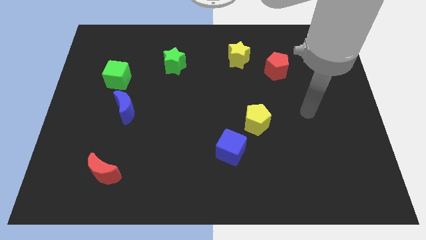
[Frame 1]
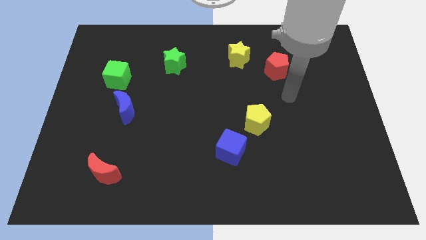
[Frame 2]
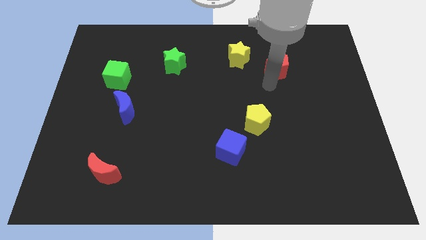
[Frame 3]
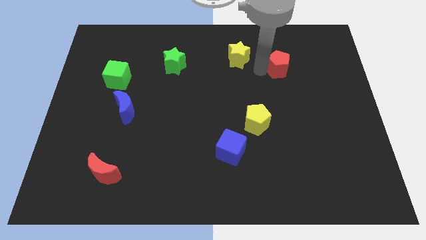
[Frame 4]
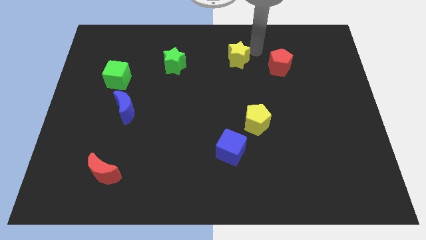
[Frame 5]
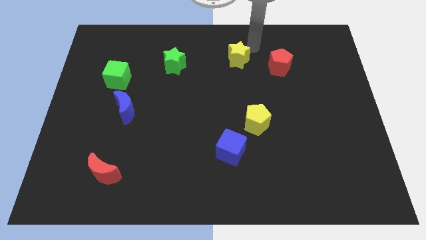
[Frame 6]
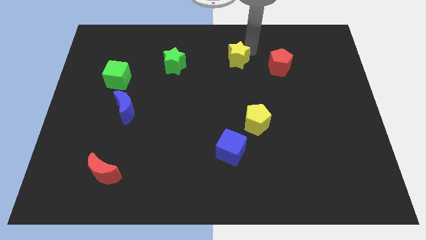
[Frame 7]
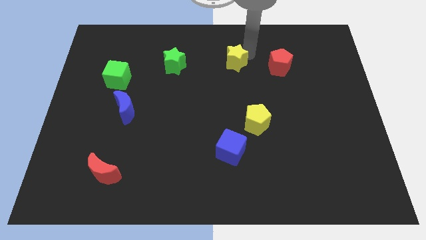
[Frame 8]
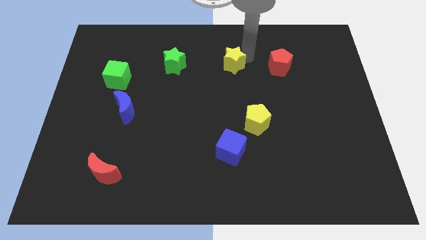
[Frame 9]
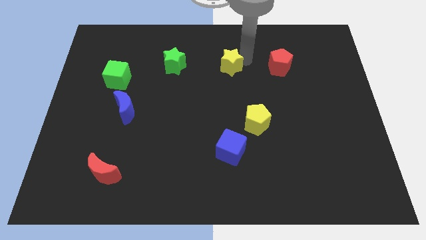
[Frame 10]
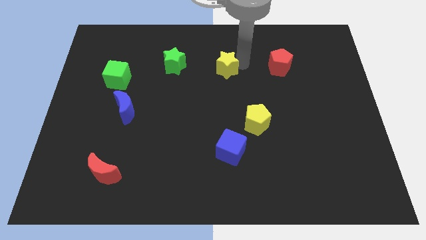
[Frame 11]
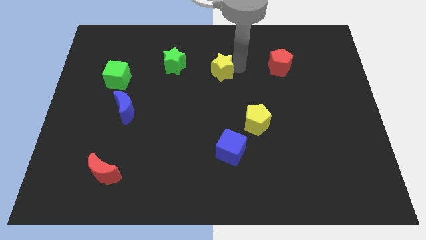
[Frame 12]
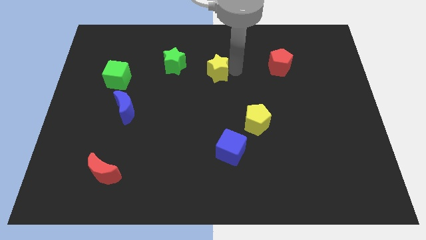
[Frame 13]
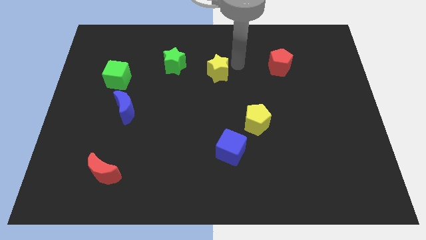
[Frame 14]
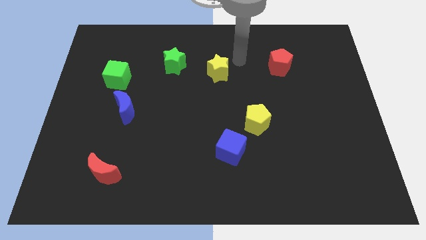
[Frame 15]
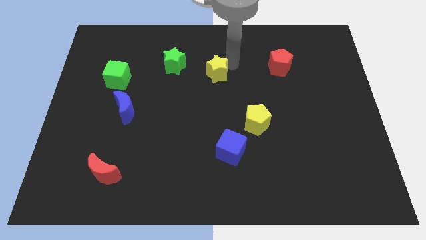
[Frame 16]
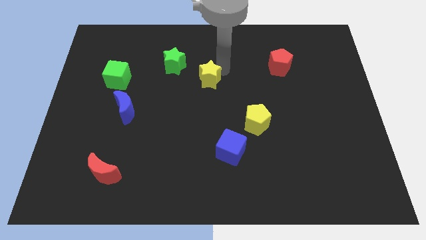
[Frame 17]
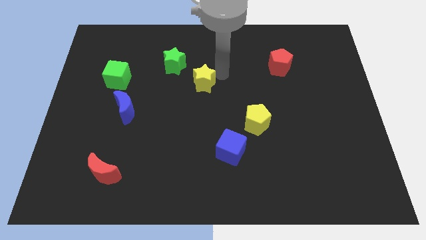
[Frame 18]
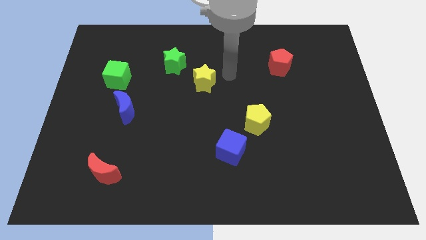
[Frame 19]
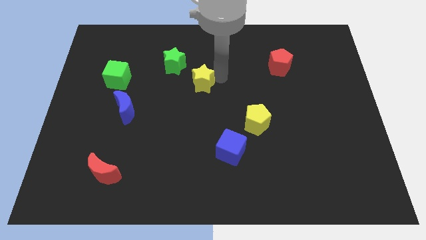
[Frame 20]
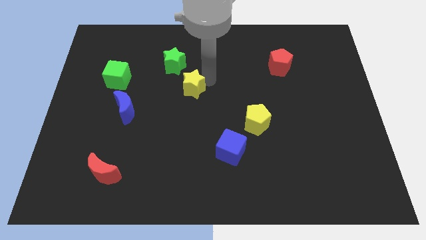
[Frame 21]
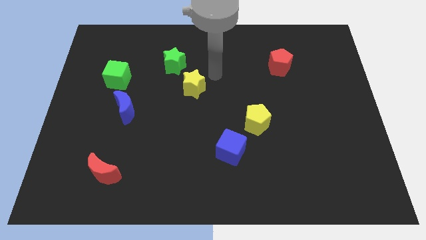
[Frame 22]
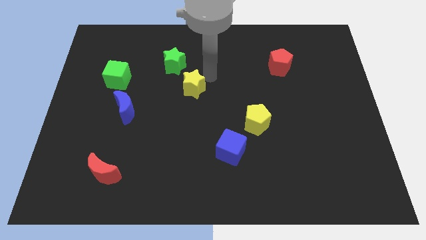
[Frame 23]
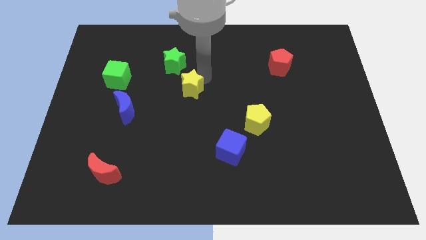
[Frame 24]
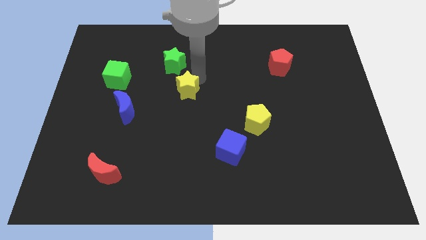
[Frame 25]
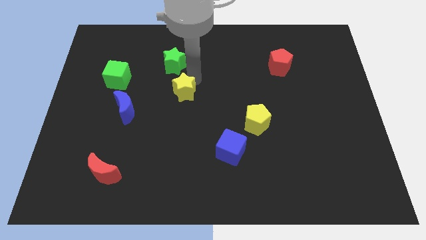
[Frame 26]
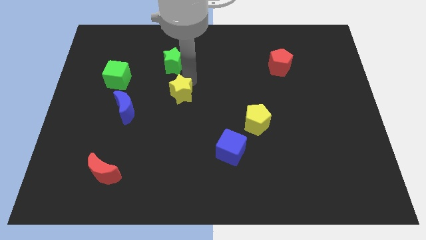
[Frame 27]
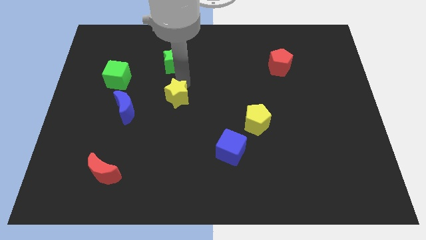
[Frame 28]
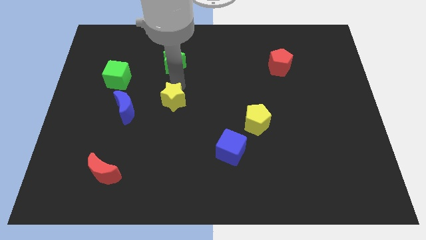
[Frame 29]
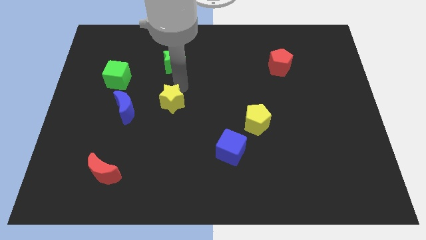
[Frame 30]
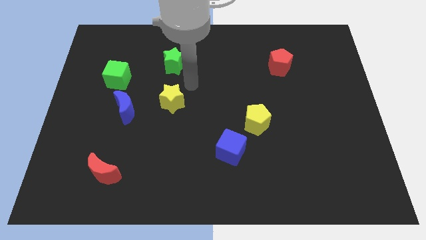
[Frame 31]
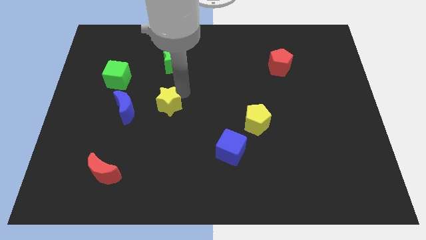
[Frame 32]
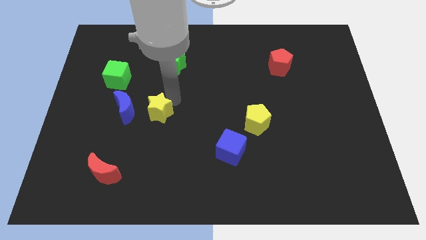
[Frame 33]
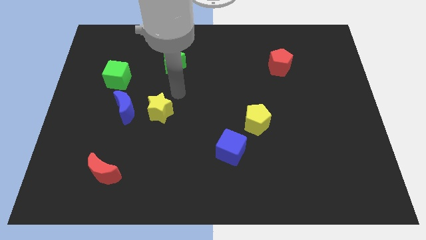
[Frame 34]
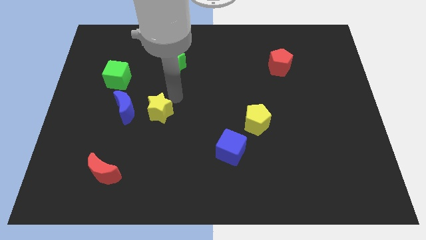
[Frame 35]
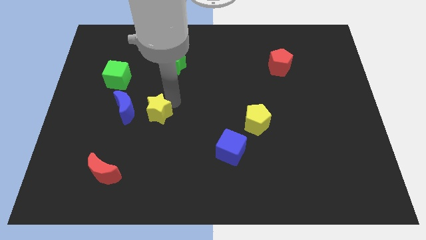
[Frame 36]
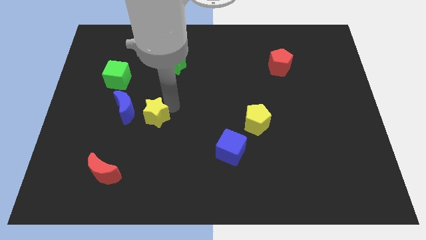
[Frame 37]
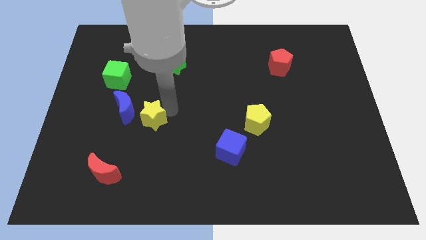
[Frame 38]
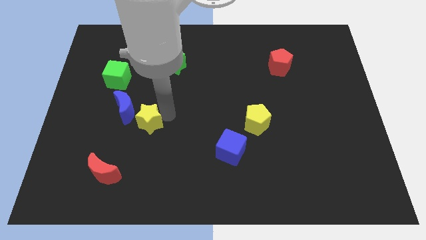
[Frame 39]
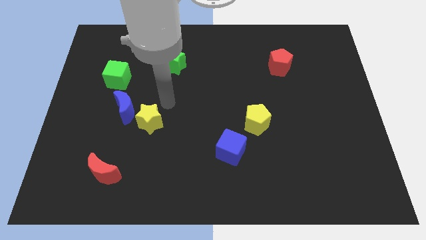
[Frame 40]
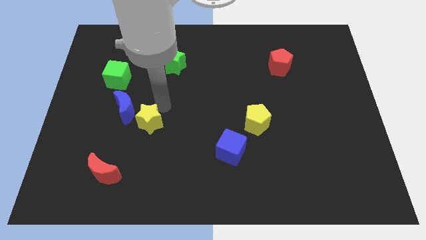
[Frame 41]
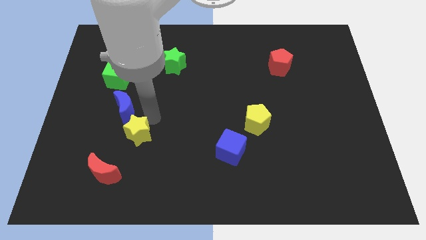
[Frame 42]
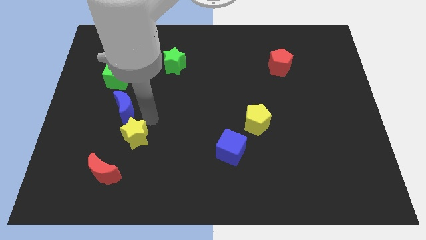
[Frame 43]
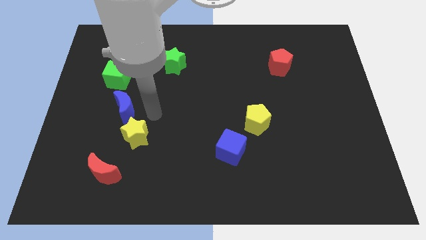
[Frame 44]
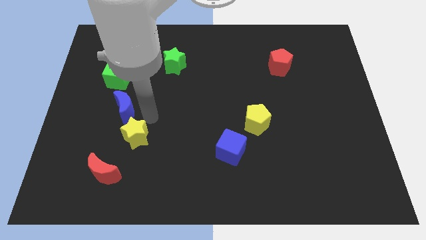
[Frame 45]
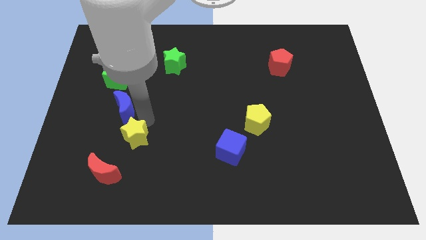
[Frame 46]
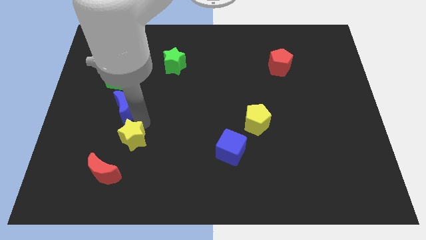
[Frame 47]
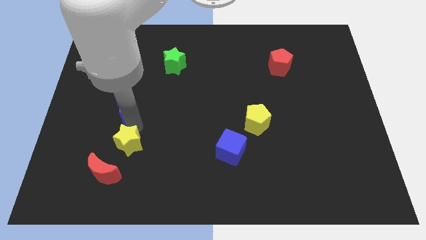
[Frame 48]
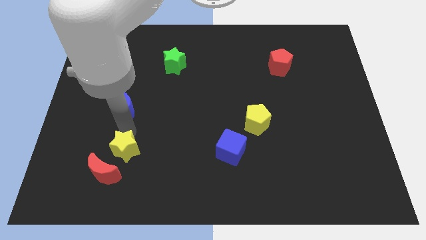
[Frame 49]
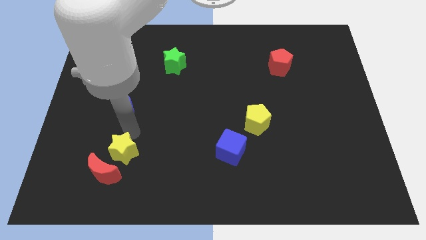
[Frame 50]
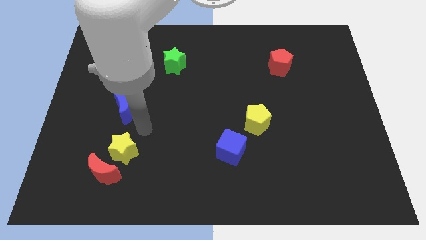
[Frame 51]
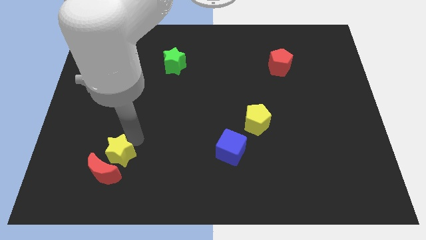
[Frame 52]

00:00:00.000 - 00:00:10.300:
push the yellow star to the red moon

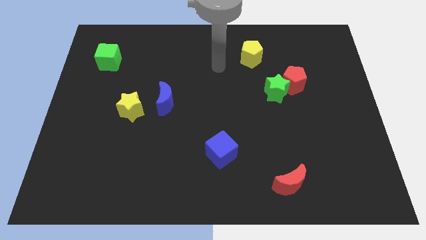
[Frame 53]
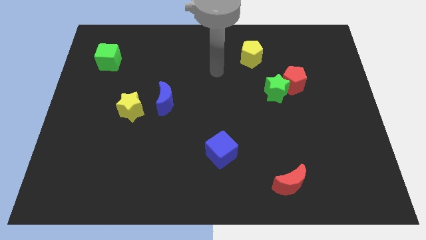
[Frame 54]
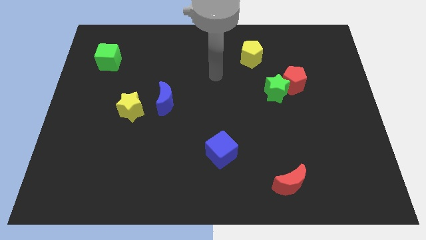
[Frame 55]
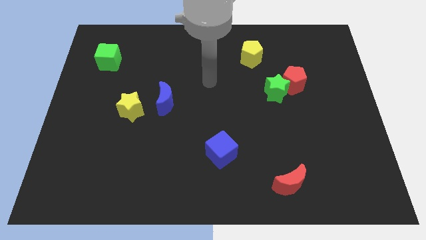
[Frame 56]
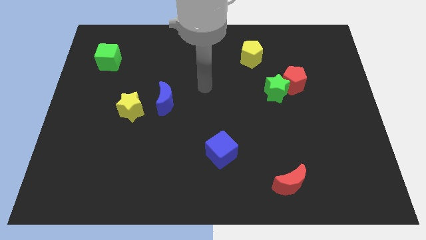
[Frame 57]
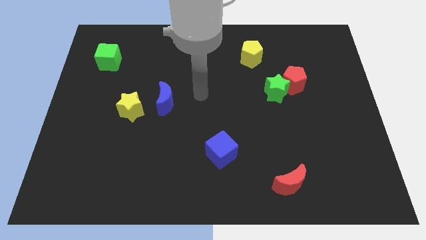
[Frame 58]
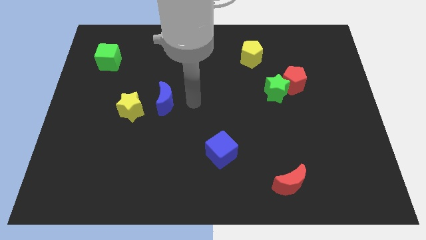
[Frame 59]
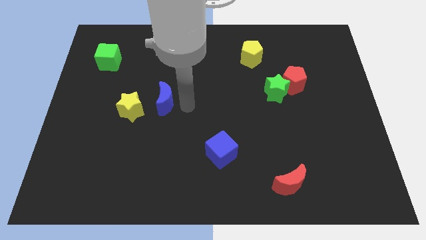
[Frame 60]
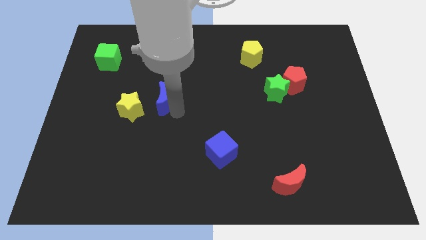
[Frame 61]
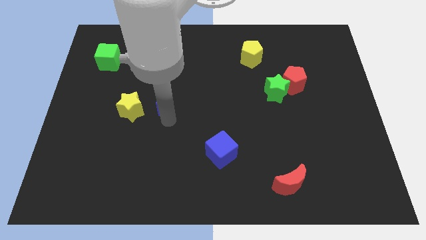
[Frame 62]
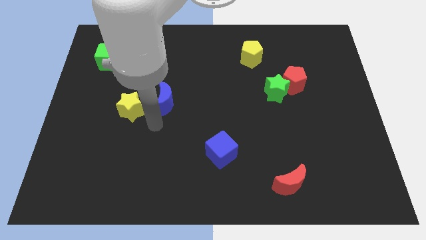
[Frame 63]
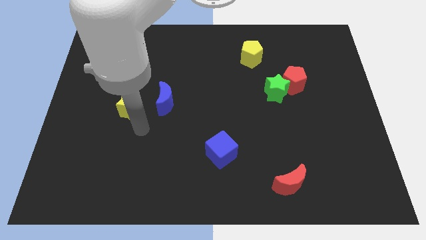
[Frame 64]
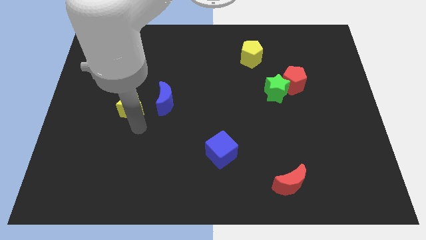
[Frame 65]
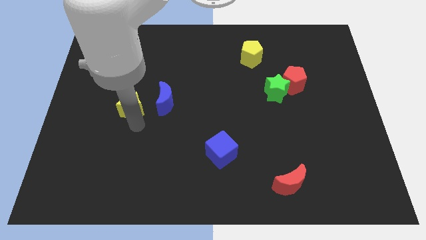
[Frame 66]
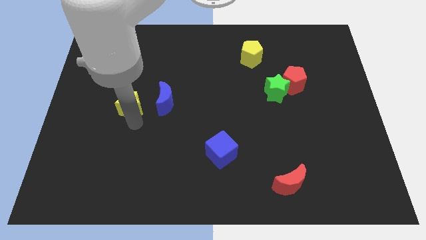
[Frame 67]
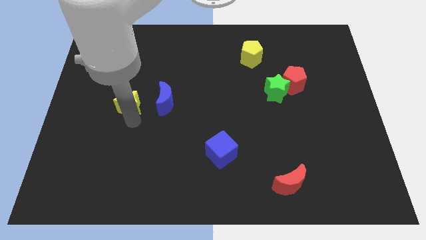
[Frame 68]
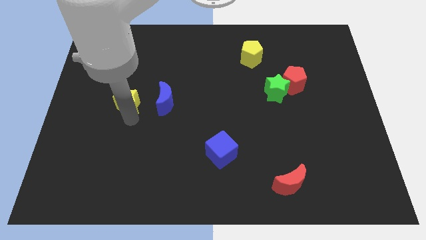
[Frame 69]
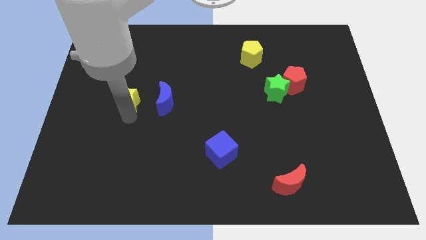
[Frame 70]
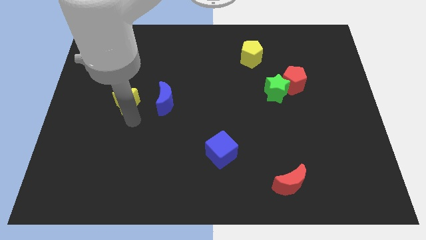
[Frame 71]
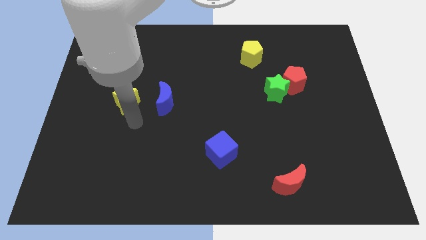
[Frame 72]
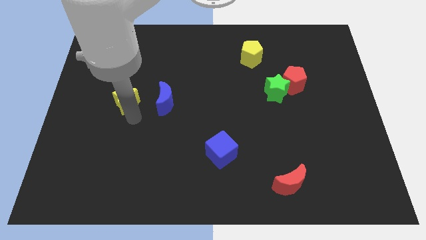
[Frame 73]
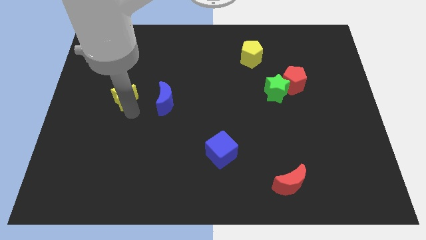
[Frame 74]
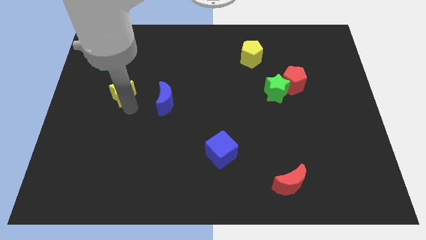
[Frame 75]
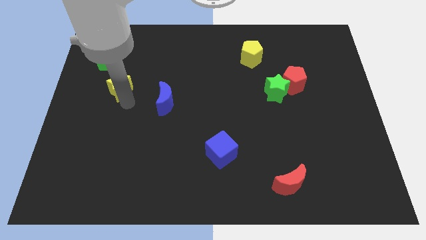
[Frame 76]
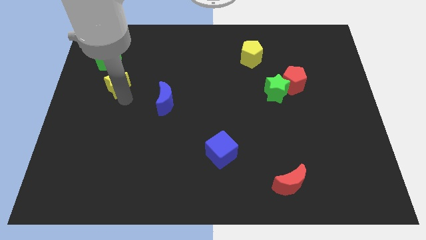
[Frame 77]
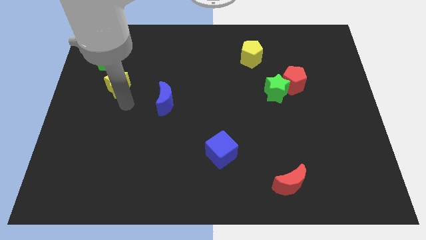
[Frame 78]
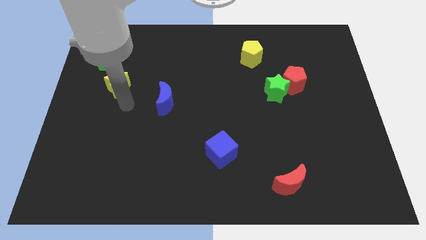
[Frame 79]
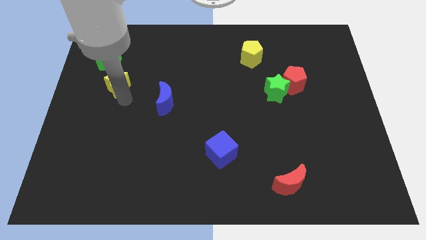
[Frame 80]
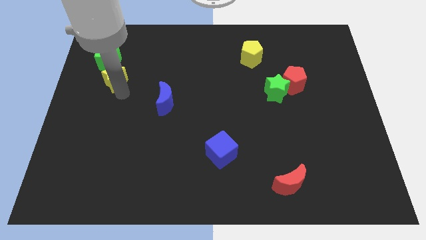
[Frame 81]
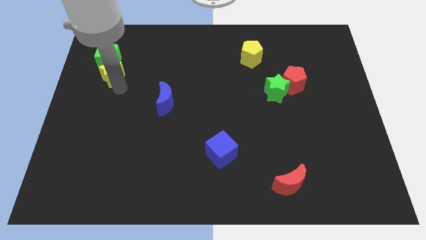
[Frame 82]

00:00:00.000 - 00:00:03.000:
slide the yellow star towards the green cube
